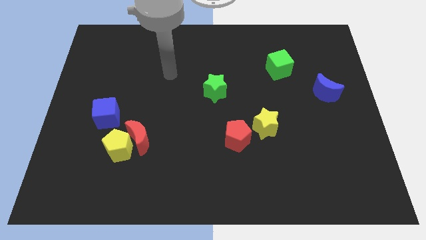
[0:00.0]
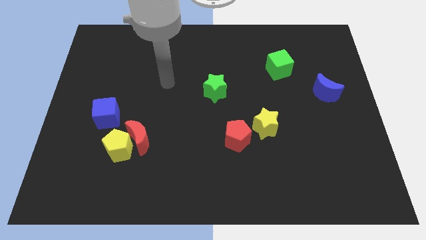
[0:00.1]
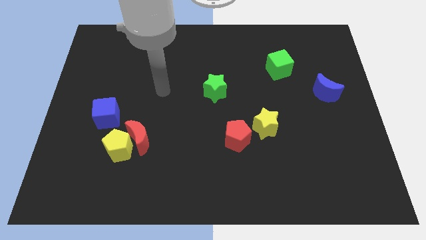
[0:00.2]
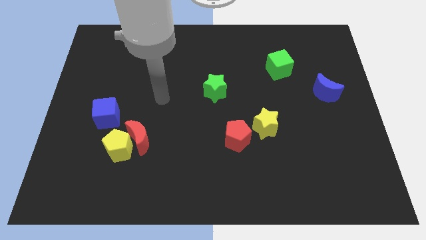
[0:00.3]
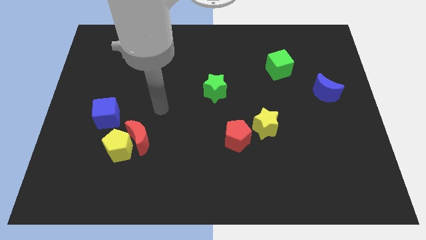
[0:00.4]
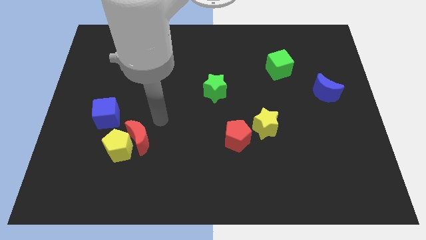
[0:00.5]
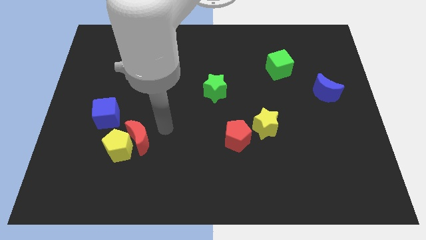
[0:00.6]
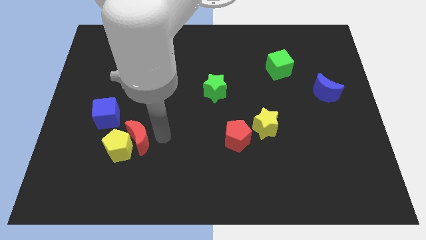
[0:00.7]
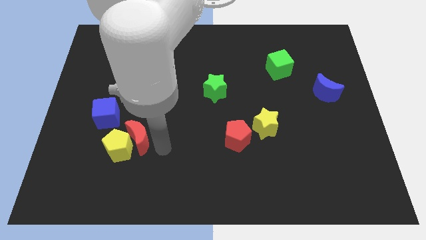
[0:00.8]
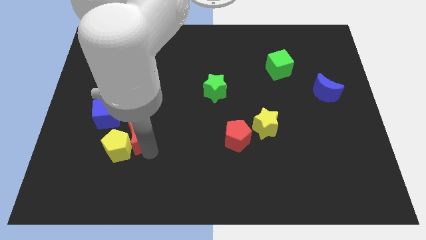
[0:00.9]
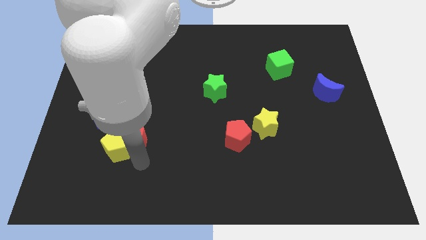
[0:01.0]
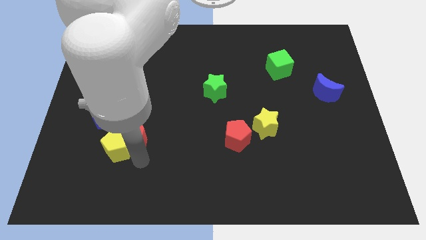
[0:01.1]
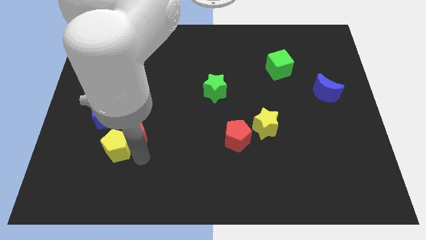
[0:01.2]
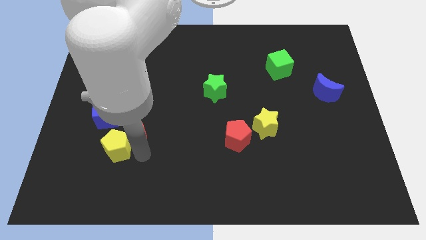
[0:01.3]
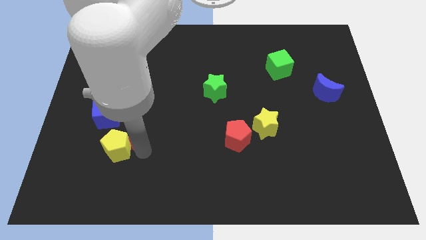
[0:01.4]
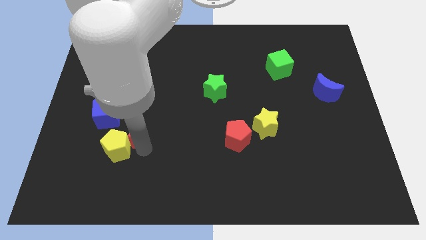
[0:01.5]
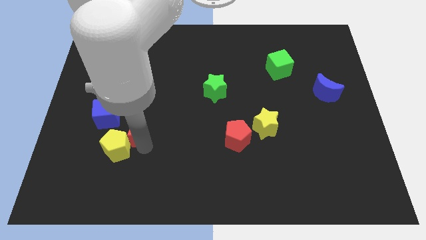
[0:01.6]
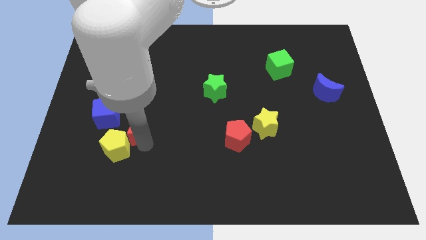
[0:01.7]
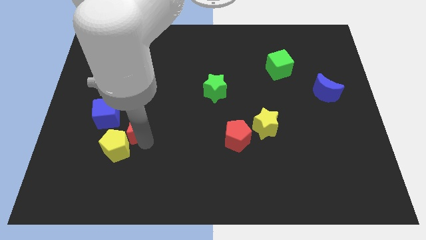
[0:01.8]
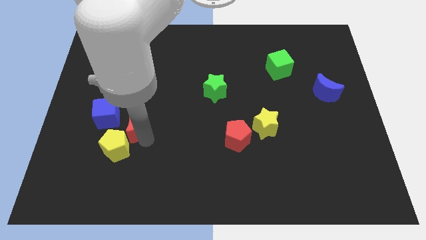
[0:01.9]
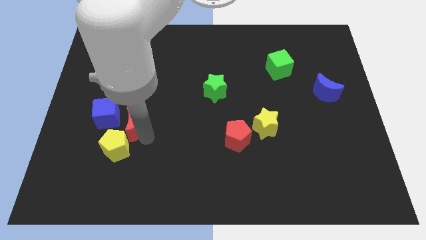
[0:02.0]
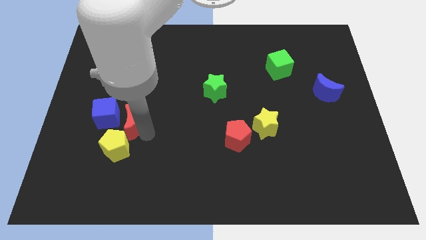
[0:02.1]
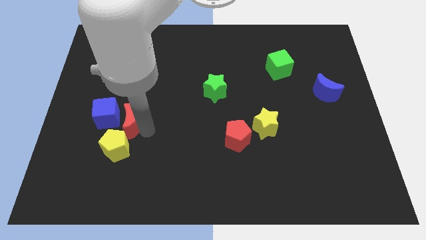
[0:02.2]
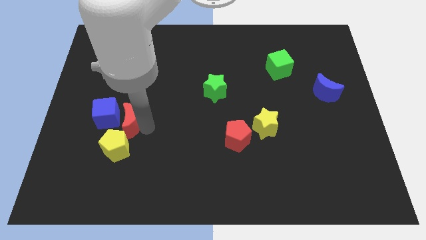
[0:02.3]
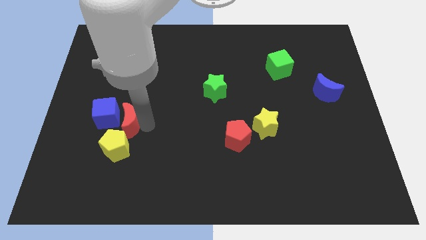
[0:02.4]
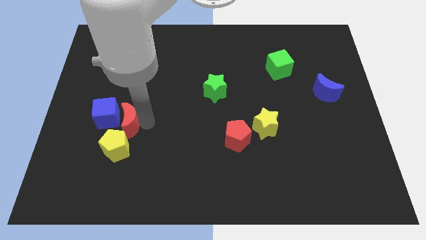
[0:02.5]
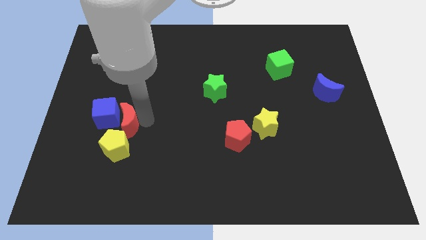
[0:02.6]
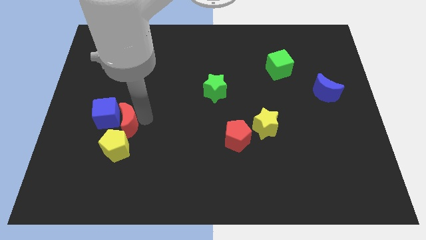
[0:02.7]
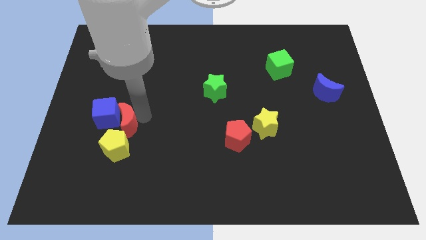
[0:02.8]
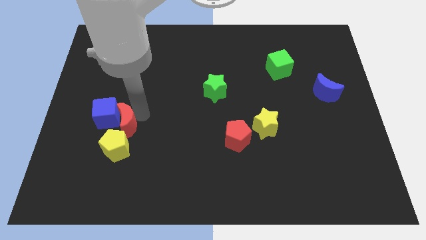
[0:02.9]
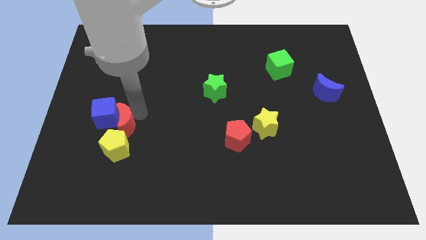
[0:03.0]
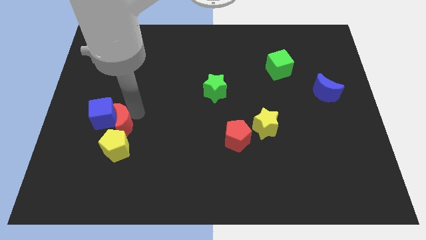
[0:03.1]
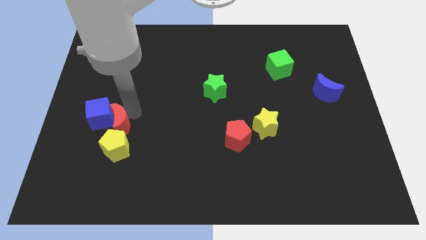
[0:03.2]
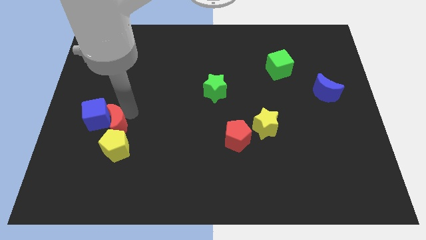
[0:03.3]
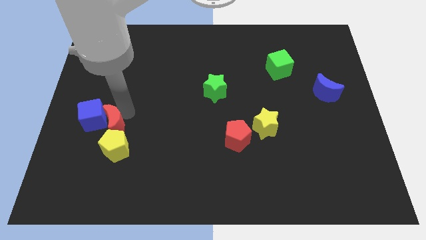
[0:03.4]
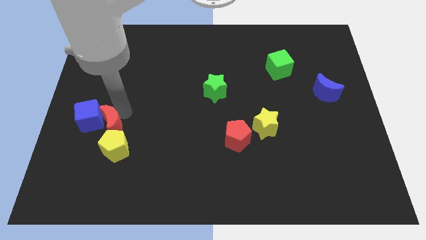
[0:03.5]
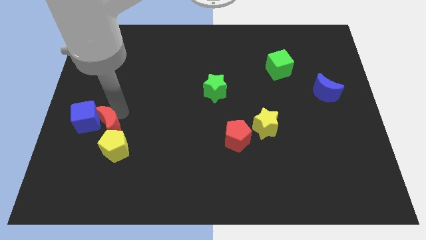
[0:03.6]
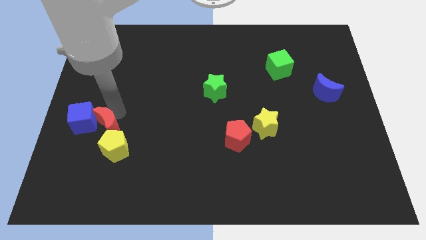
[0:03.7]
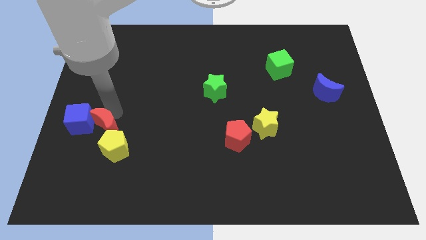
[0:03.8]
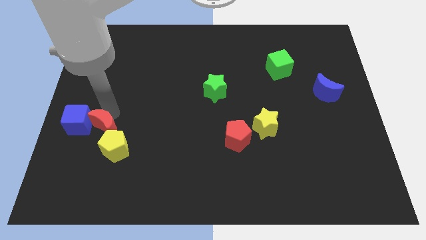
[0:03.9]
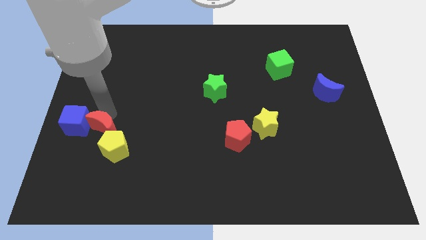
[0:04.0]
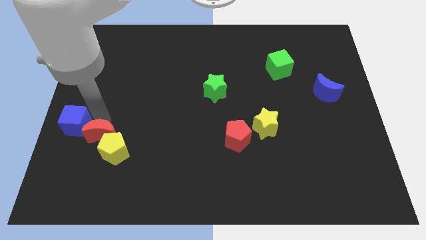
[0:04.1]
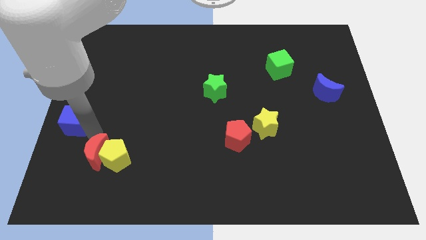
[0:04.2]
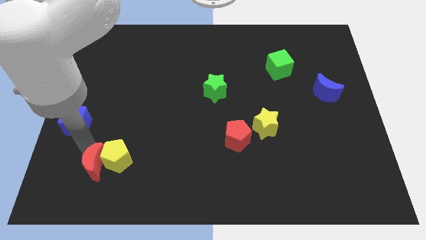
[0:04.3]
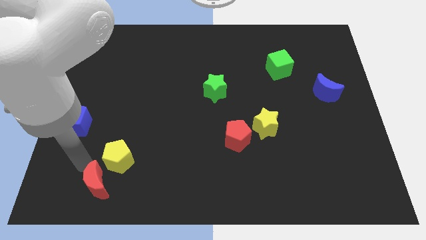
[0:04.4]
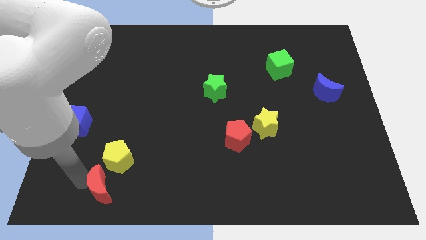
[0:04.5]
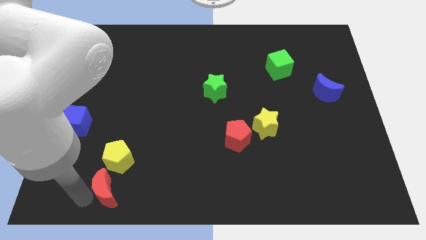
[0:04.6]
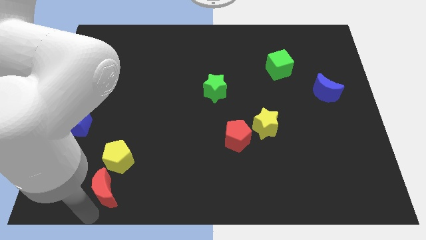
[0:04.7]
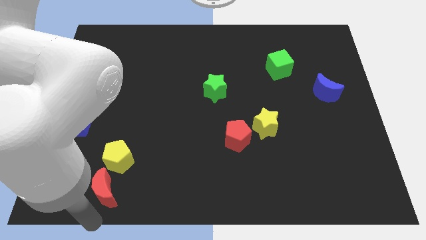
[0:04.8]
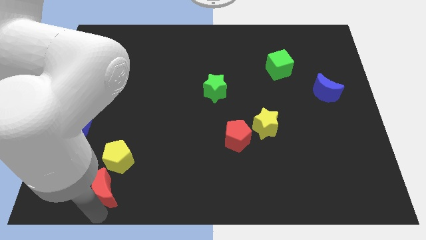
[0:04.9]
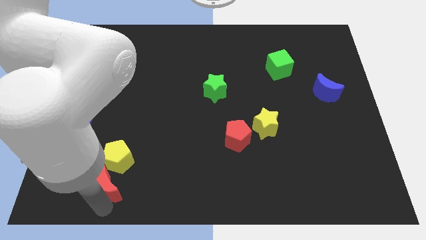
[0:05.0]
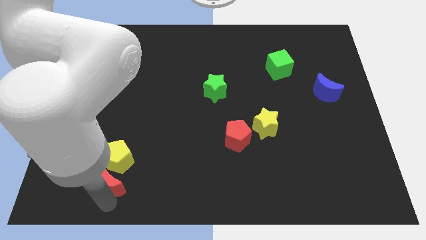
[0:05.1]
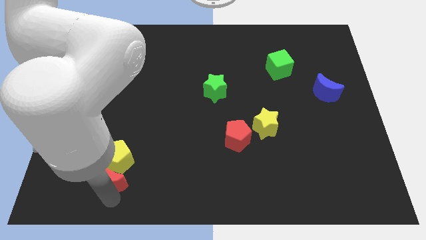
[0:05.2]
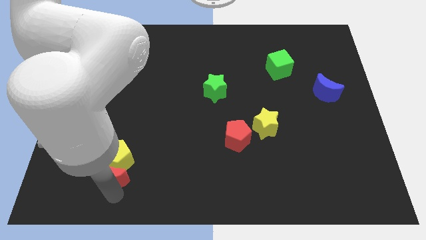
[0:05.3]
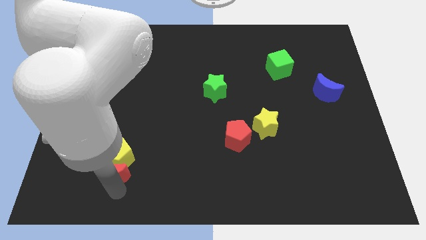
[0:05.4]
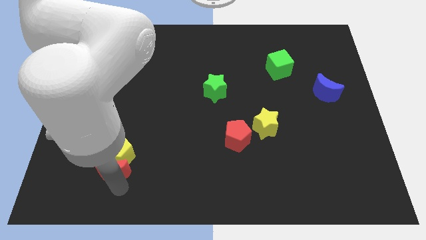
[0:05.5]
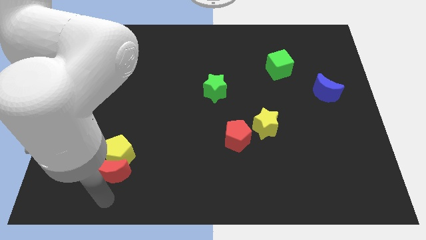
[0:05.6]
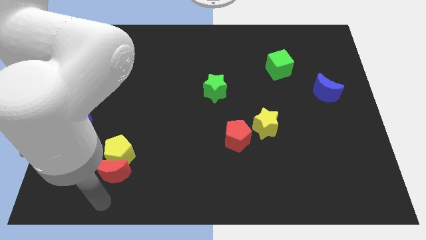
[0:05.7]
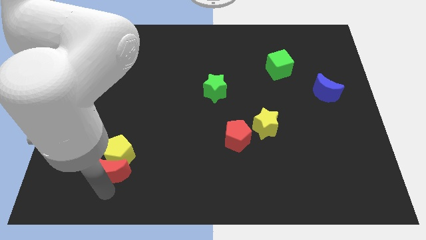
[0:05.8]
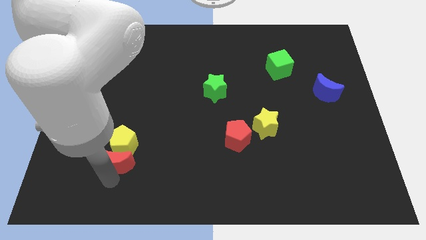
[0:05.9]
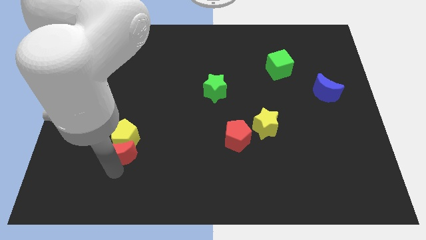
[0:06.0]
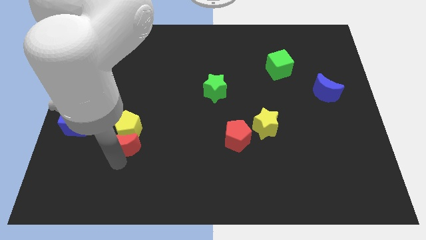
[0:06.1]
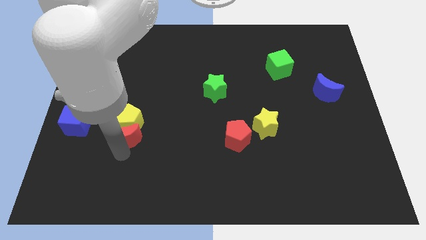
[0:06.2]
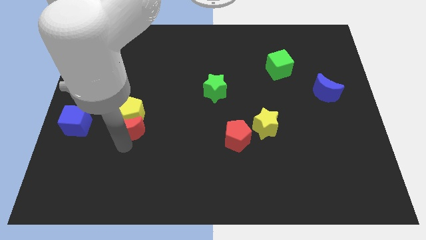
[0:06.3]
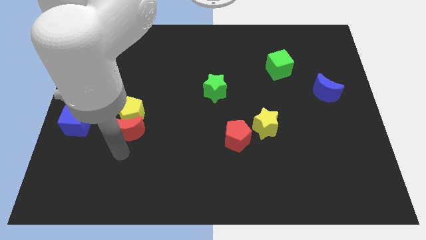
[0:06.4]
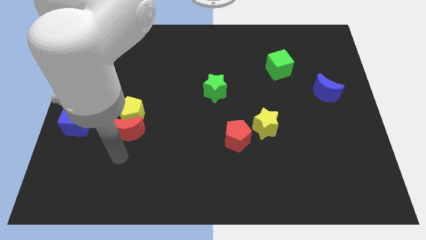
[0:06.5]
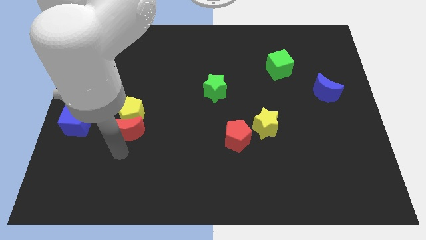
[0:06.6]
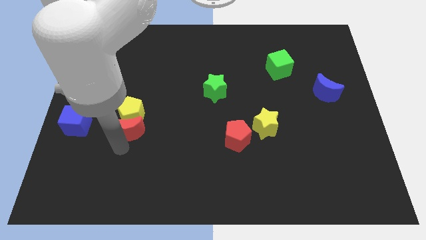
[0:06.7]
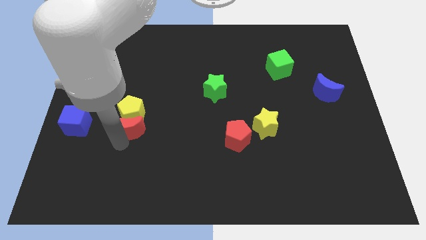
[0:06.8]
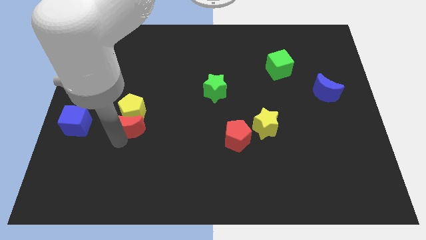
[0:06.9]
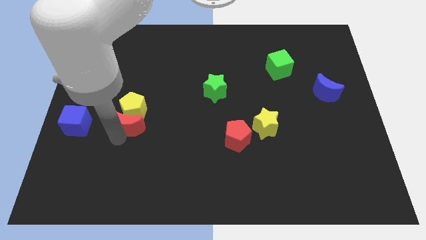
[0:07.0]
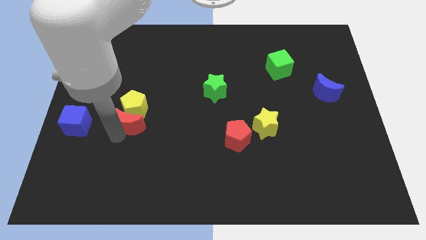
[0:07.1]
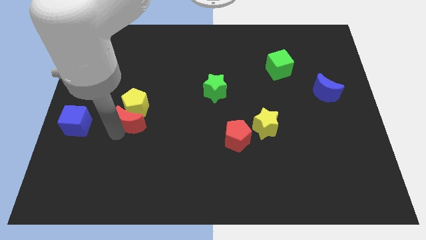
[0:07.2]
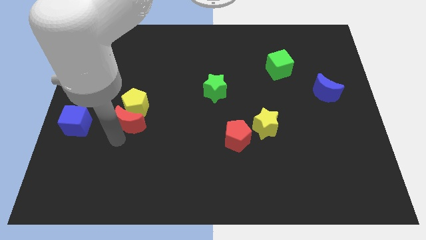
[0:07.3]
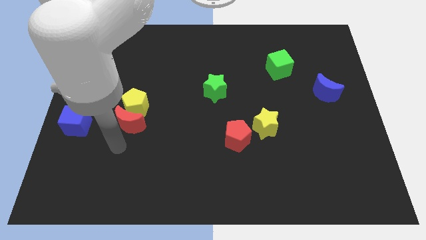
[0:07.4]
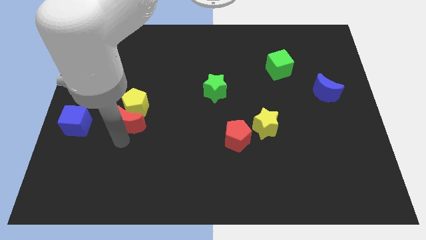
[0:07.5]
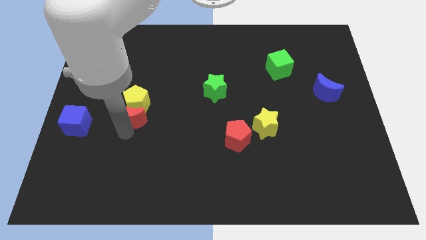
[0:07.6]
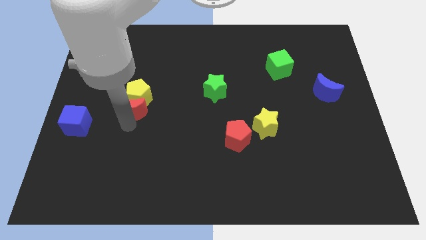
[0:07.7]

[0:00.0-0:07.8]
slightly move the red moon up

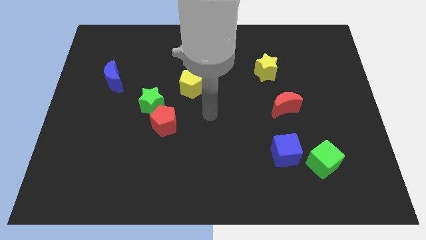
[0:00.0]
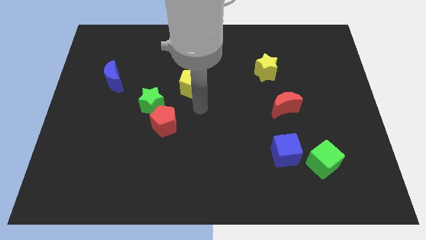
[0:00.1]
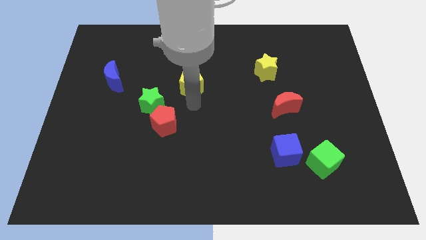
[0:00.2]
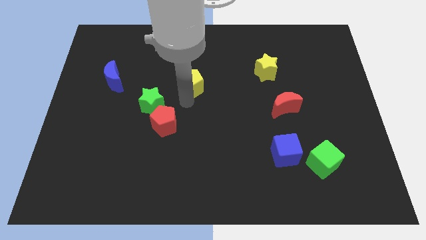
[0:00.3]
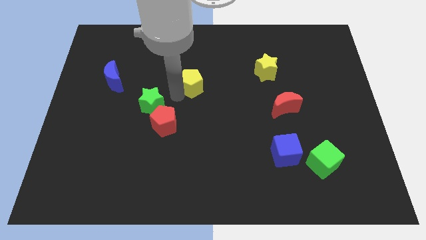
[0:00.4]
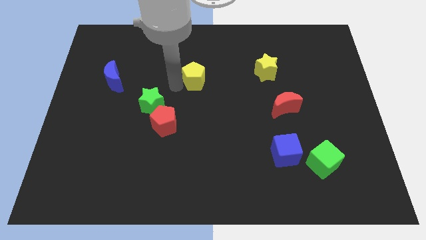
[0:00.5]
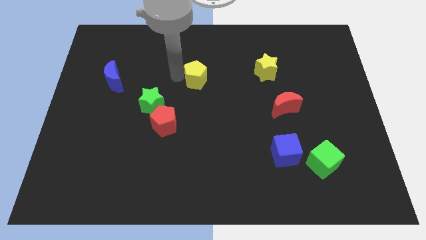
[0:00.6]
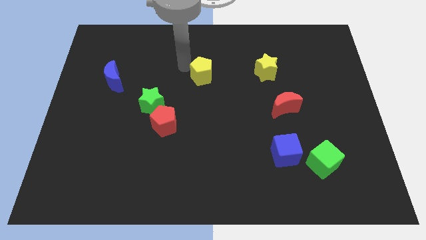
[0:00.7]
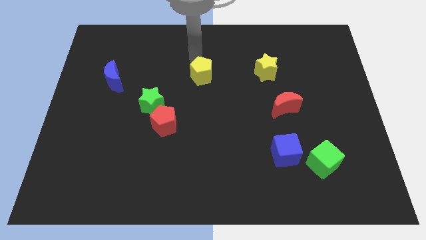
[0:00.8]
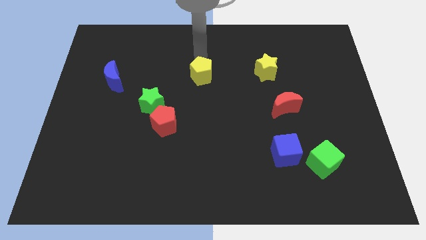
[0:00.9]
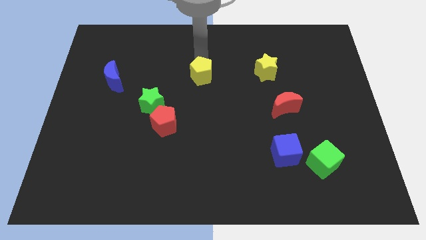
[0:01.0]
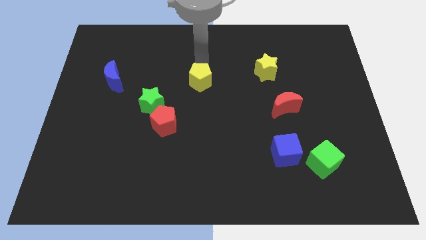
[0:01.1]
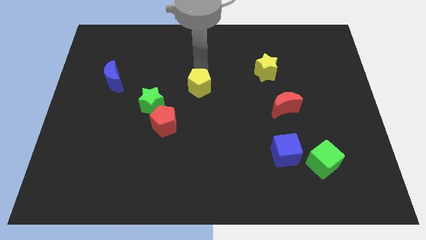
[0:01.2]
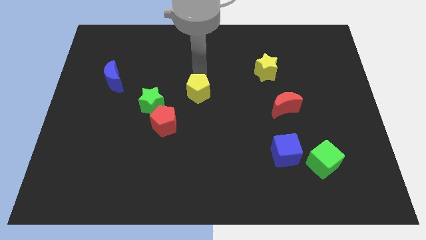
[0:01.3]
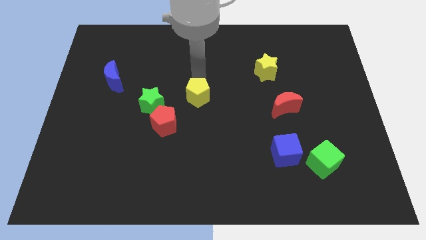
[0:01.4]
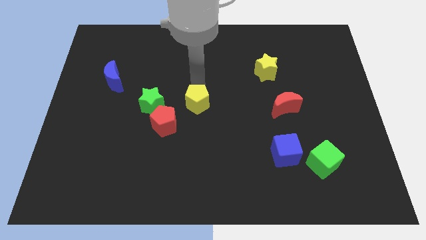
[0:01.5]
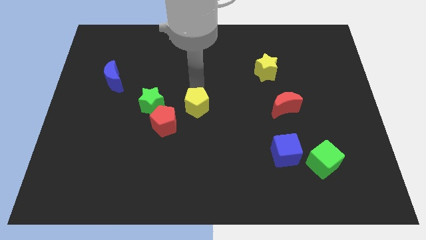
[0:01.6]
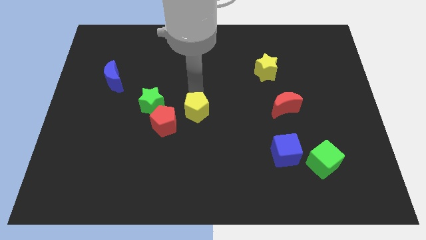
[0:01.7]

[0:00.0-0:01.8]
slide the yellow pentagon a bit down
